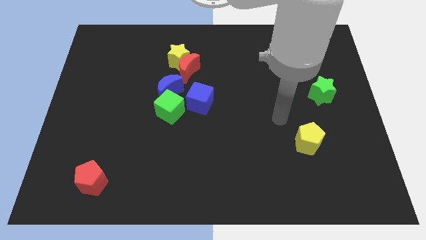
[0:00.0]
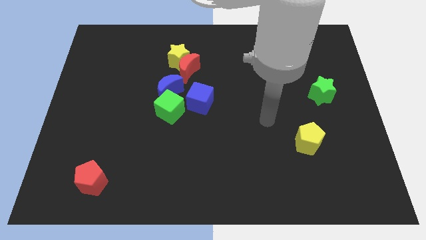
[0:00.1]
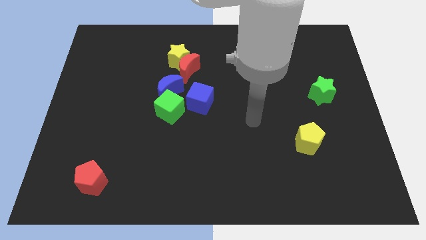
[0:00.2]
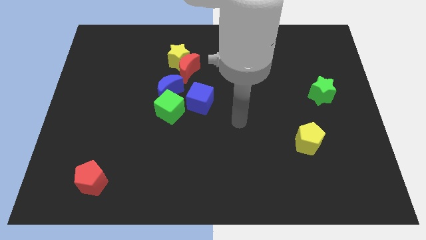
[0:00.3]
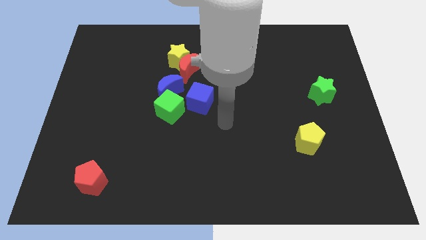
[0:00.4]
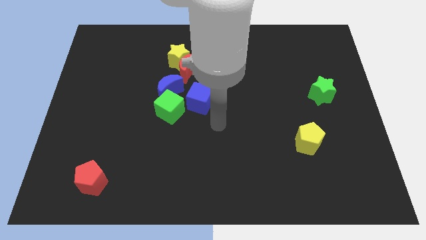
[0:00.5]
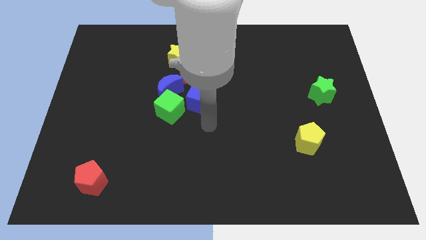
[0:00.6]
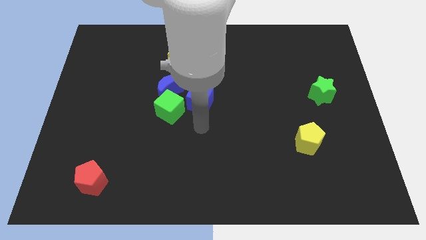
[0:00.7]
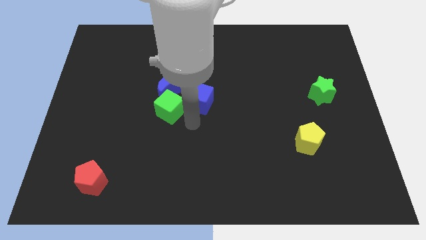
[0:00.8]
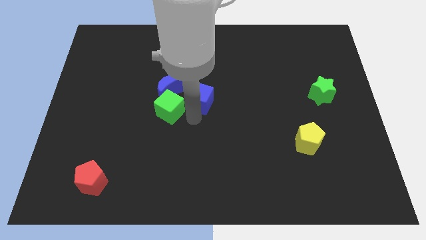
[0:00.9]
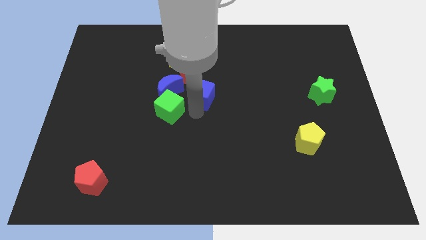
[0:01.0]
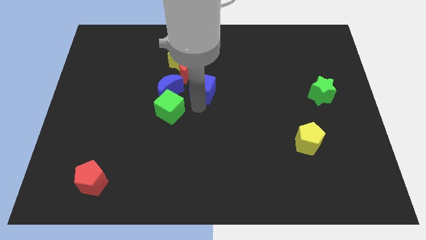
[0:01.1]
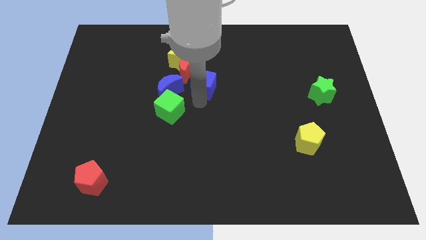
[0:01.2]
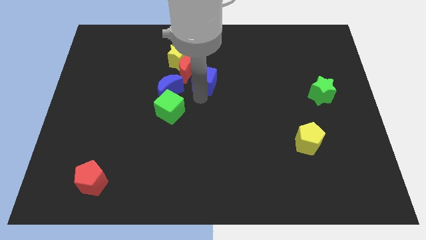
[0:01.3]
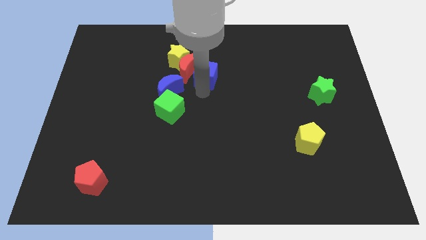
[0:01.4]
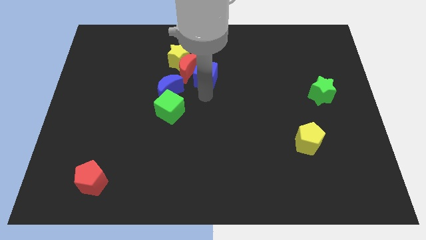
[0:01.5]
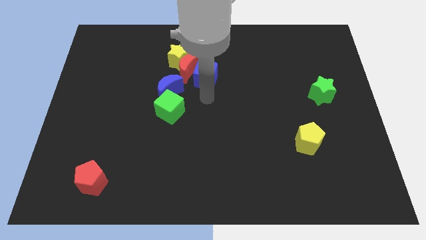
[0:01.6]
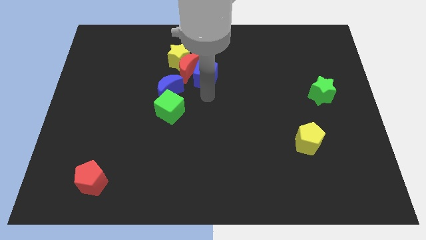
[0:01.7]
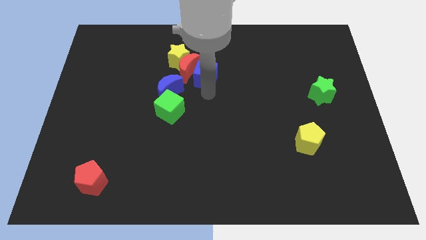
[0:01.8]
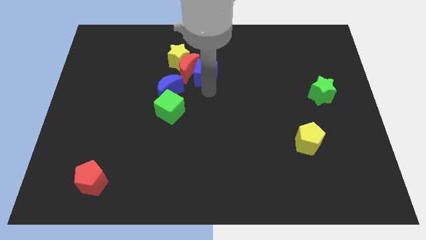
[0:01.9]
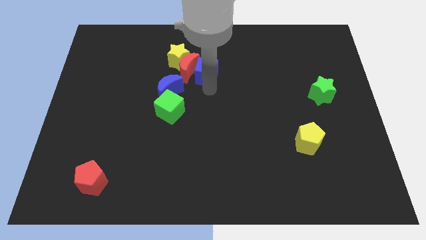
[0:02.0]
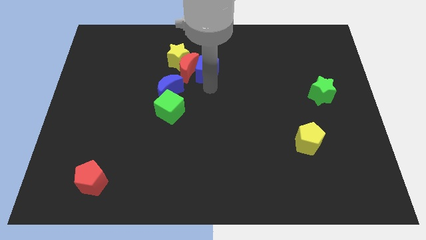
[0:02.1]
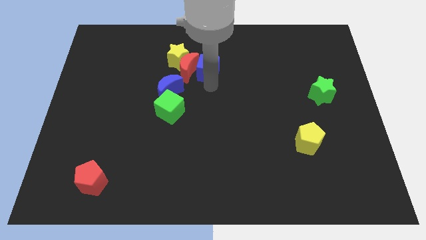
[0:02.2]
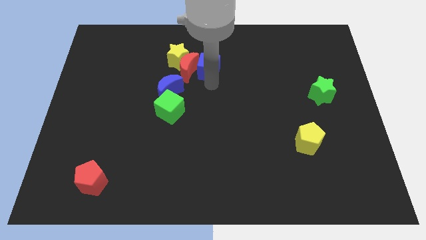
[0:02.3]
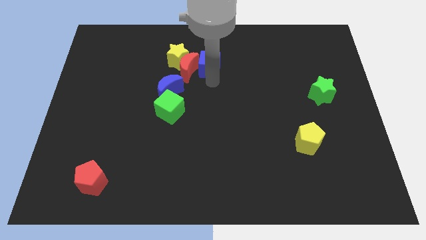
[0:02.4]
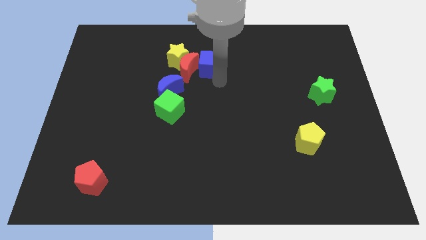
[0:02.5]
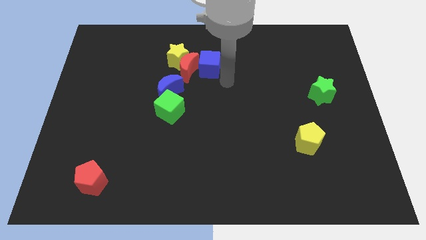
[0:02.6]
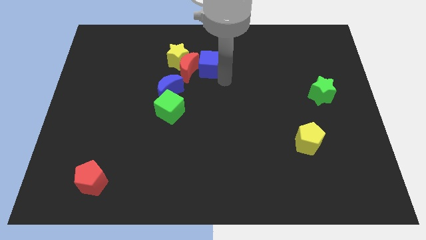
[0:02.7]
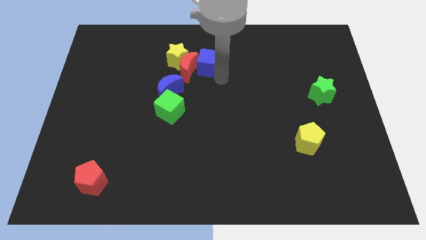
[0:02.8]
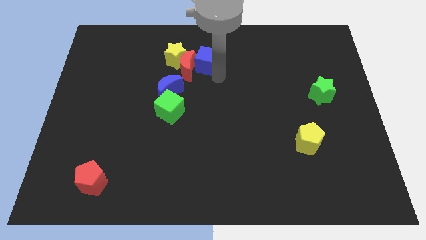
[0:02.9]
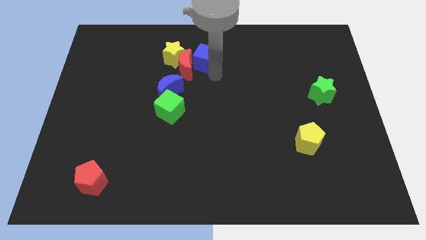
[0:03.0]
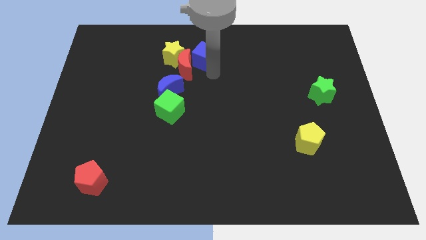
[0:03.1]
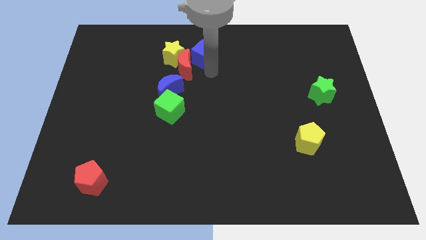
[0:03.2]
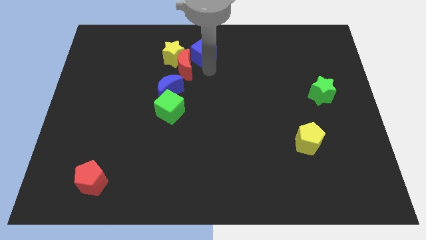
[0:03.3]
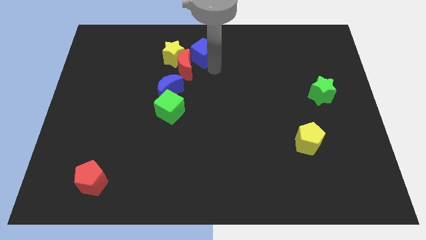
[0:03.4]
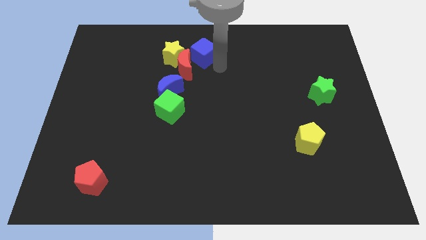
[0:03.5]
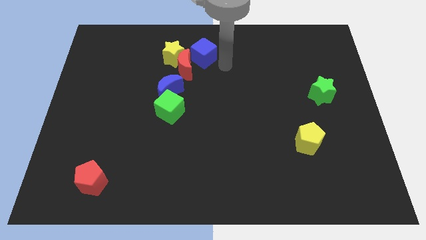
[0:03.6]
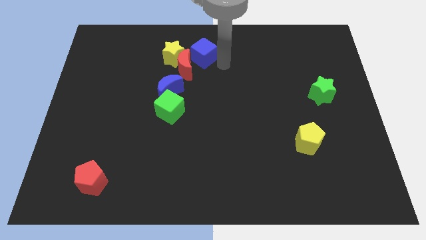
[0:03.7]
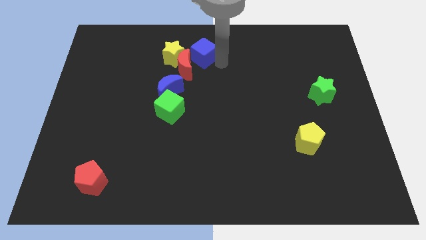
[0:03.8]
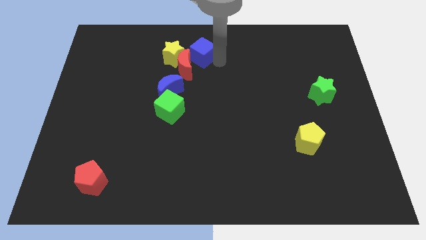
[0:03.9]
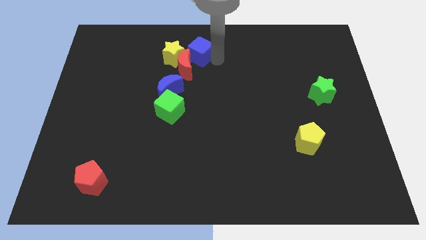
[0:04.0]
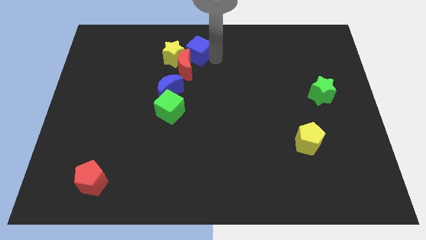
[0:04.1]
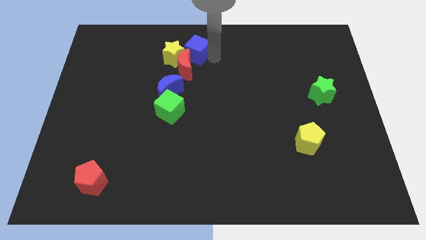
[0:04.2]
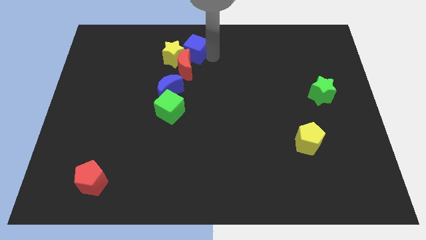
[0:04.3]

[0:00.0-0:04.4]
push the blue cube diagonally upwards and to the left somewhat

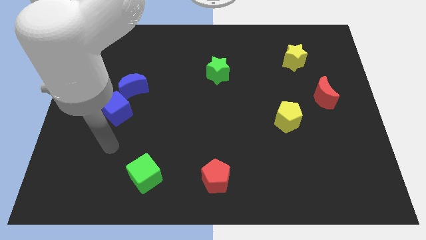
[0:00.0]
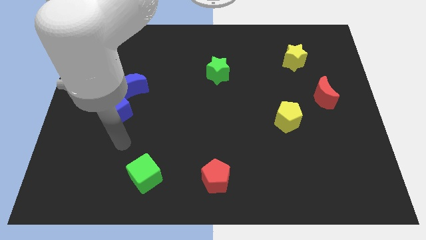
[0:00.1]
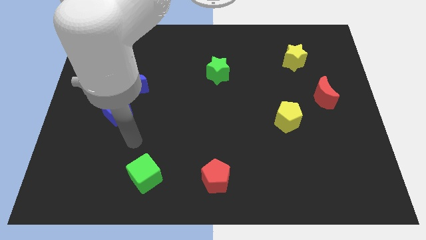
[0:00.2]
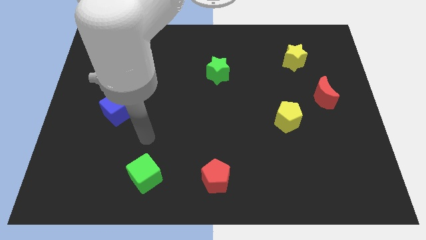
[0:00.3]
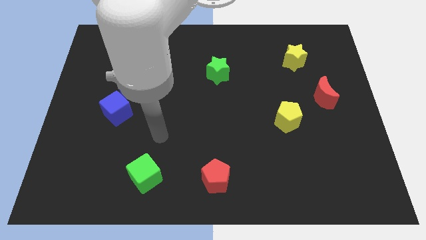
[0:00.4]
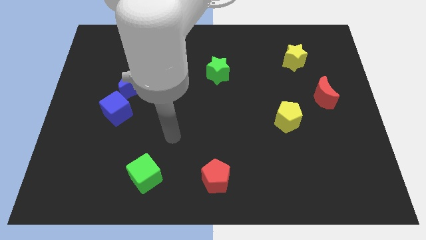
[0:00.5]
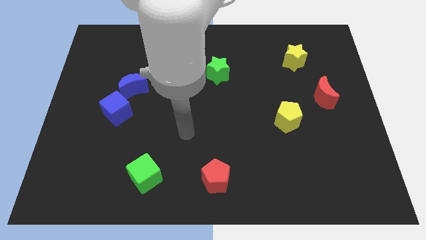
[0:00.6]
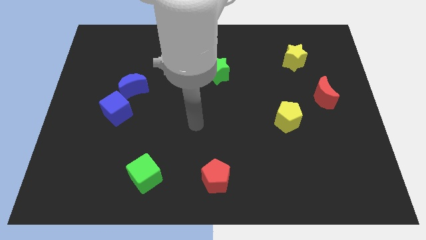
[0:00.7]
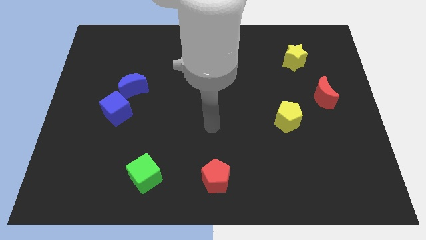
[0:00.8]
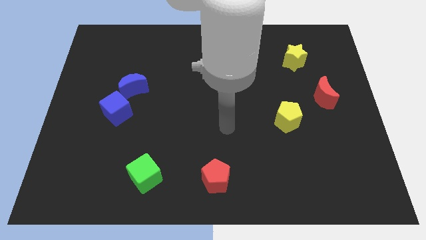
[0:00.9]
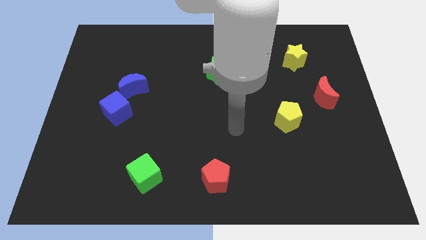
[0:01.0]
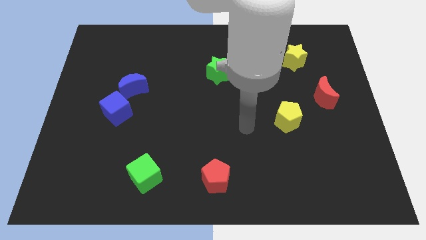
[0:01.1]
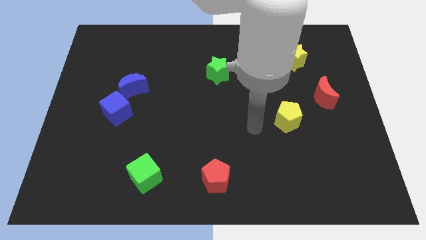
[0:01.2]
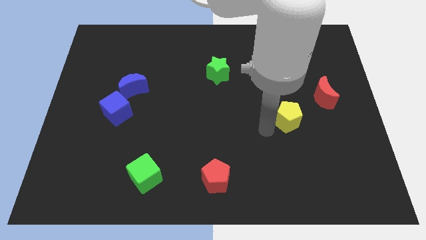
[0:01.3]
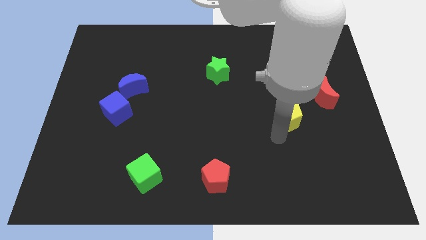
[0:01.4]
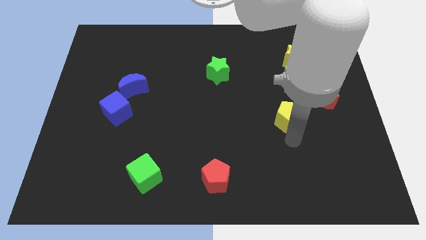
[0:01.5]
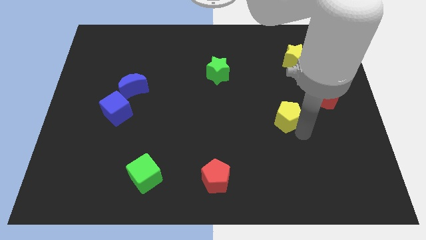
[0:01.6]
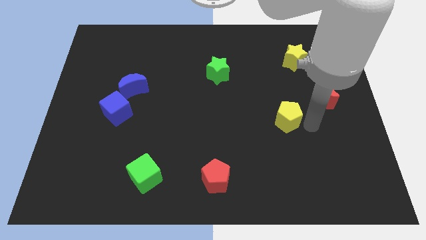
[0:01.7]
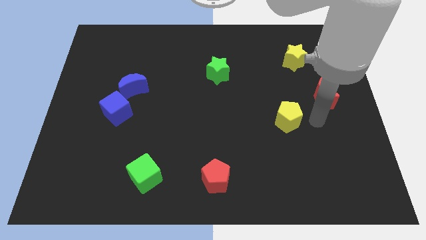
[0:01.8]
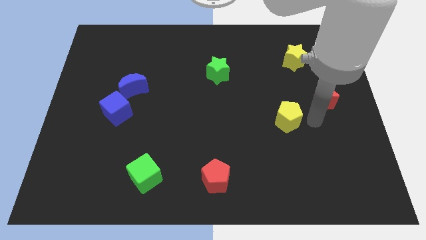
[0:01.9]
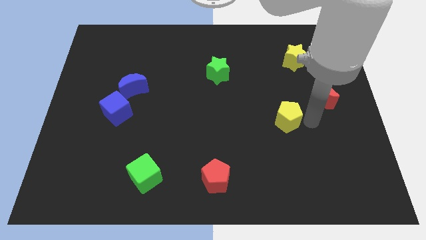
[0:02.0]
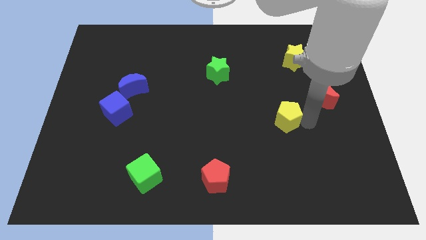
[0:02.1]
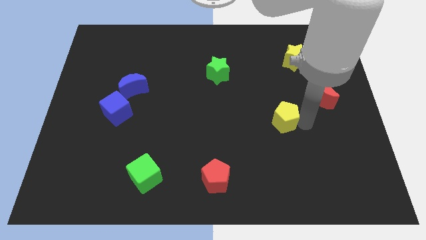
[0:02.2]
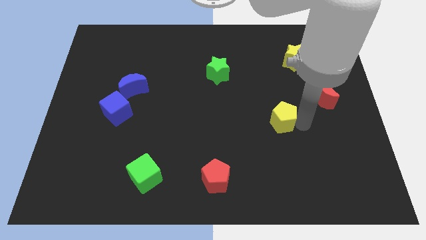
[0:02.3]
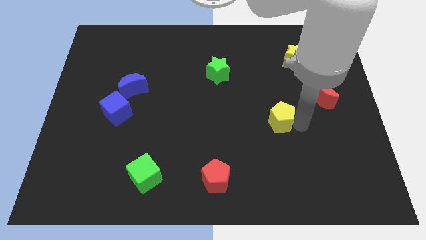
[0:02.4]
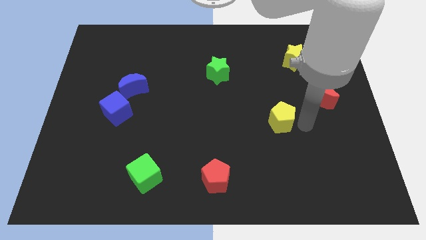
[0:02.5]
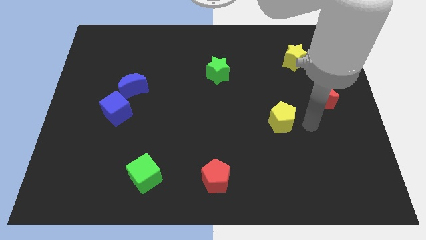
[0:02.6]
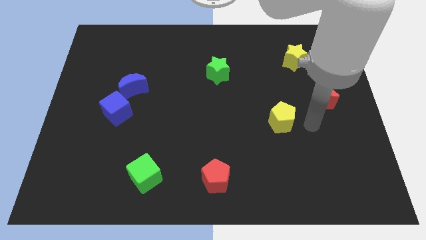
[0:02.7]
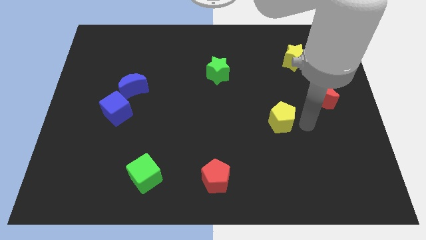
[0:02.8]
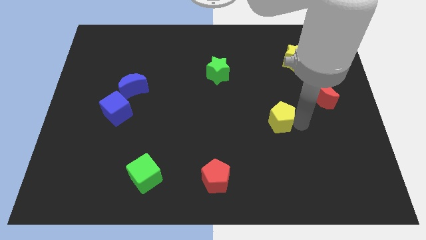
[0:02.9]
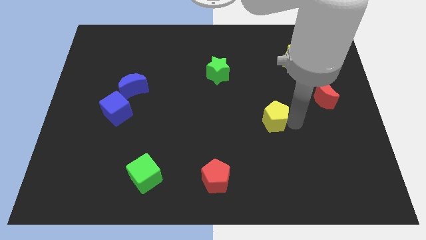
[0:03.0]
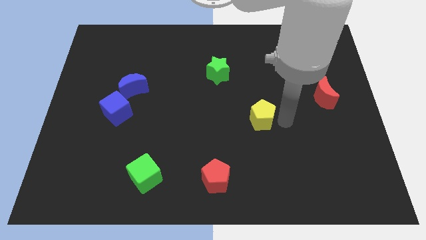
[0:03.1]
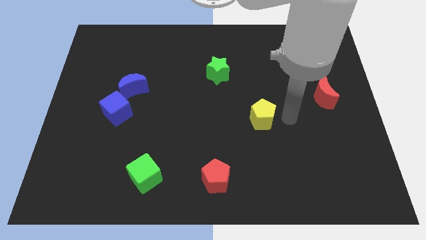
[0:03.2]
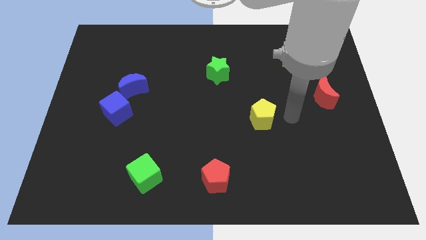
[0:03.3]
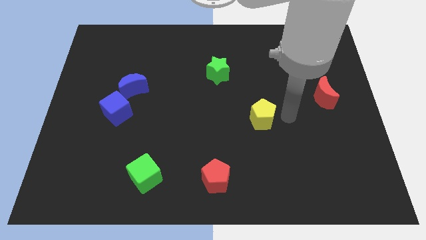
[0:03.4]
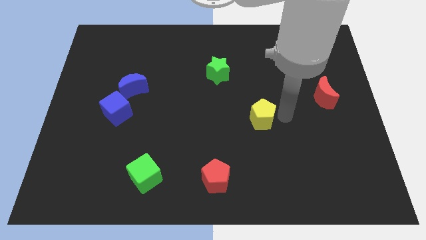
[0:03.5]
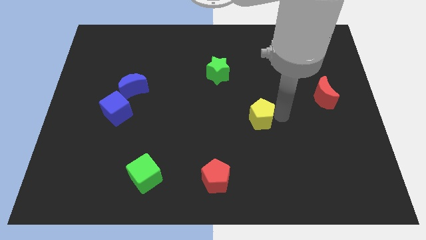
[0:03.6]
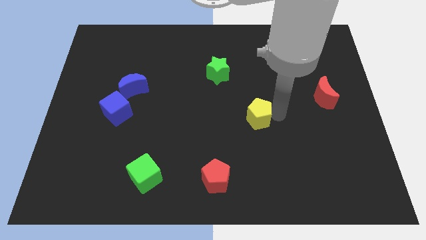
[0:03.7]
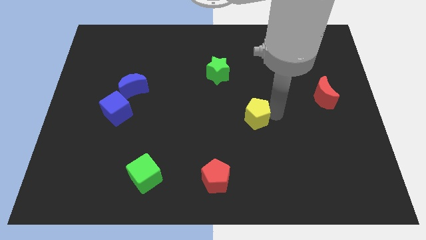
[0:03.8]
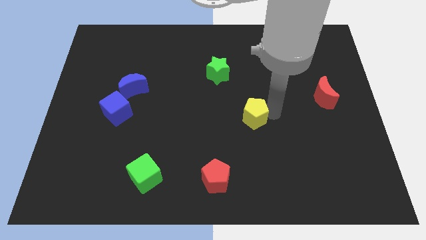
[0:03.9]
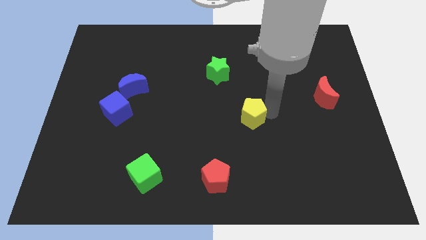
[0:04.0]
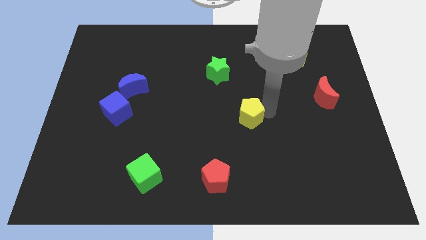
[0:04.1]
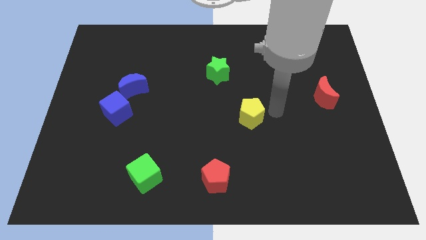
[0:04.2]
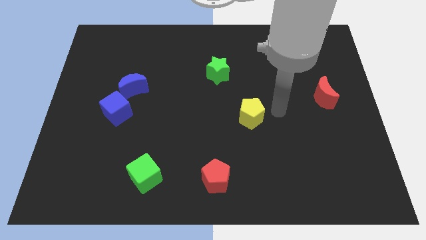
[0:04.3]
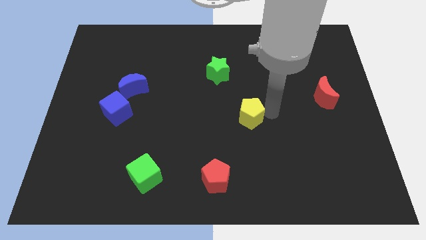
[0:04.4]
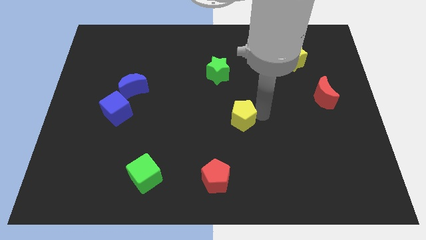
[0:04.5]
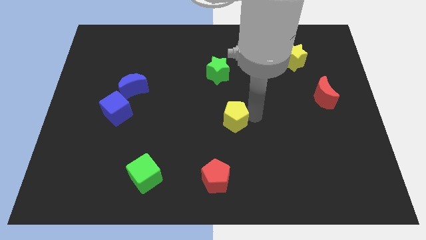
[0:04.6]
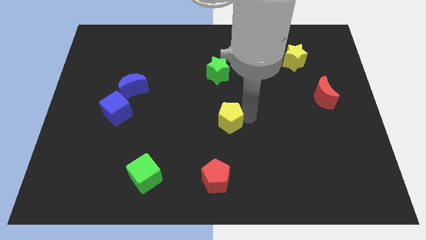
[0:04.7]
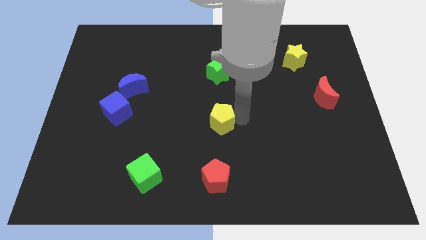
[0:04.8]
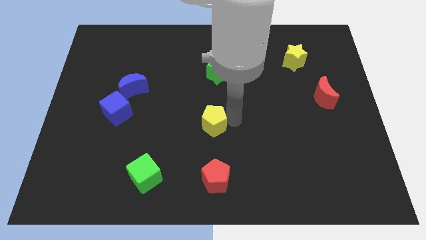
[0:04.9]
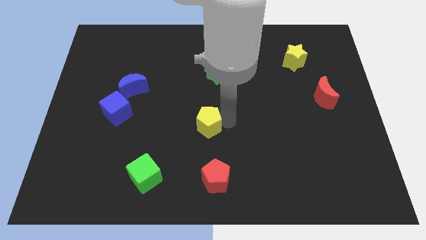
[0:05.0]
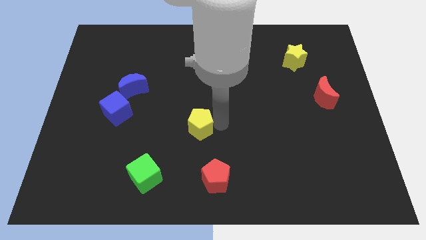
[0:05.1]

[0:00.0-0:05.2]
slide the yellow pentagon left
